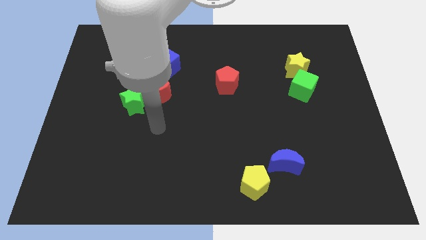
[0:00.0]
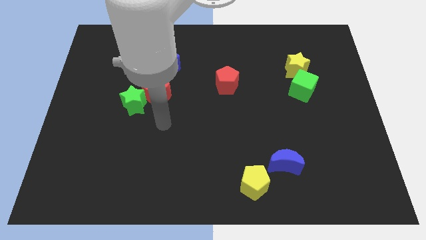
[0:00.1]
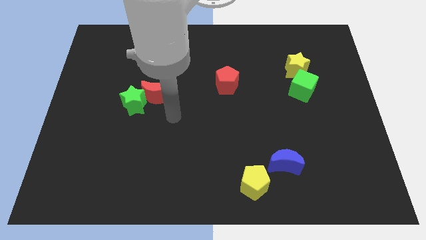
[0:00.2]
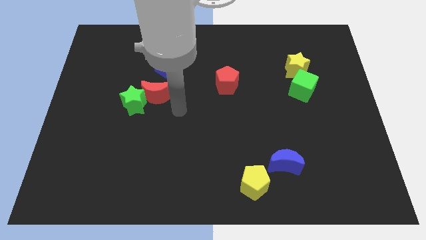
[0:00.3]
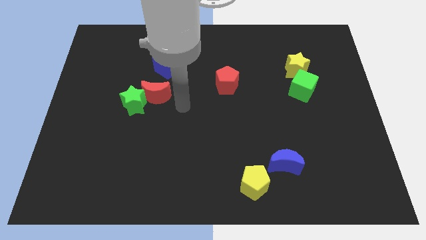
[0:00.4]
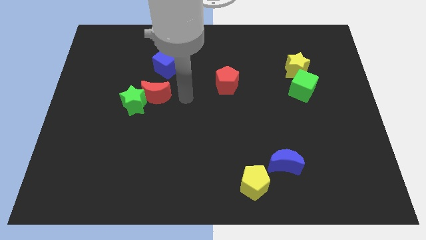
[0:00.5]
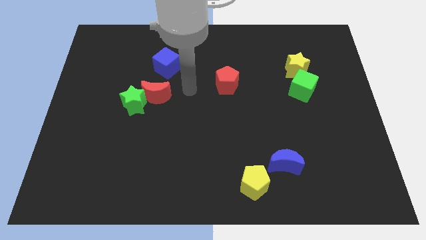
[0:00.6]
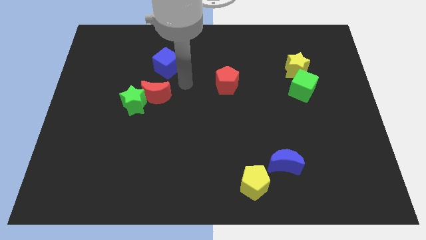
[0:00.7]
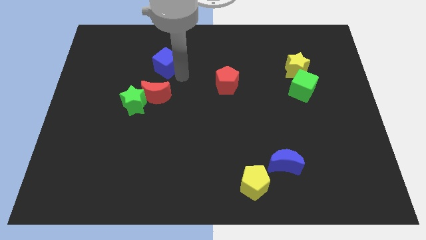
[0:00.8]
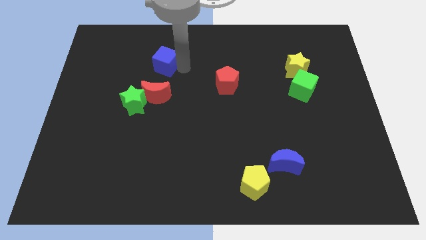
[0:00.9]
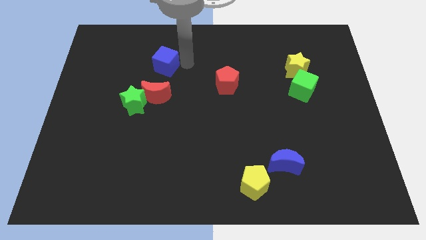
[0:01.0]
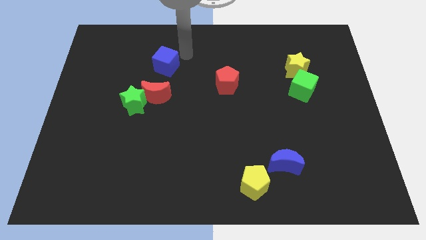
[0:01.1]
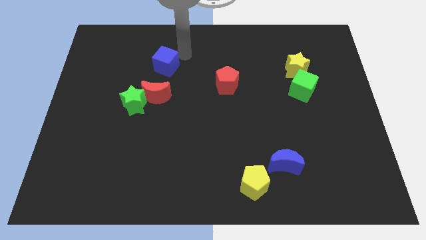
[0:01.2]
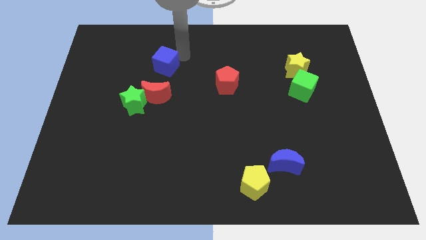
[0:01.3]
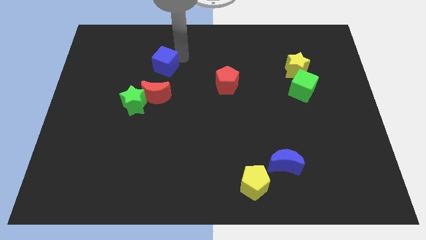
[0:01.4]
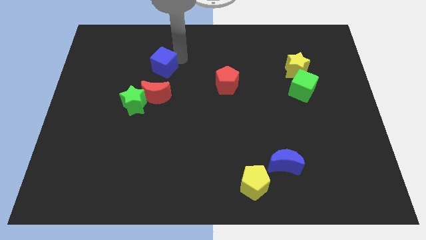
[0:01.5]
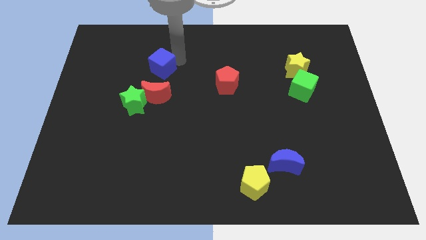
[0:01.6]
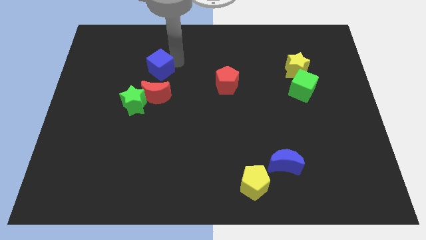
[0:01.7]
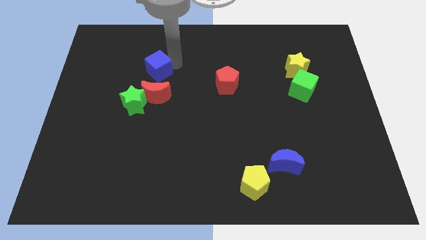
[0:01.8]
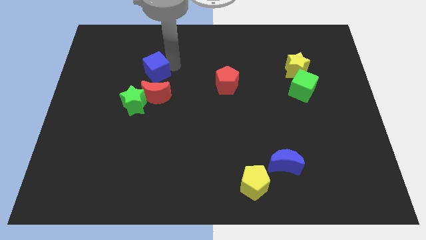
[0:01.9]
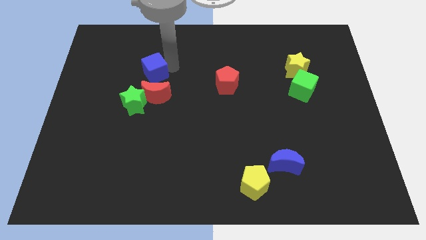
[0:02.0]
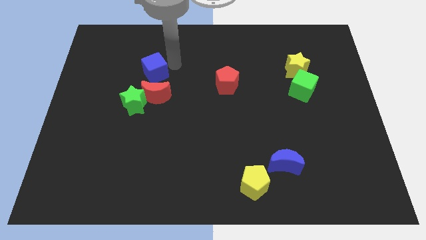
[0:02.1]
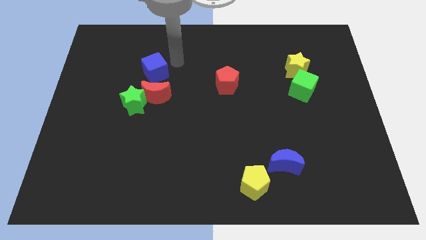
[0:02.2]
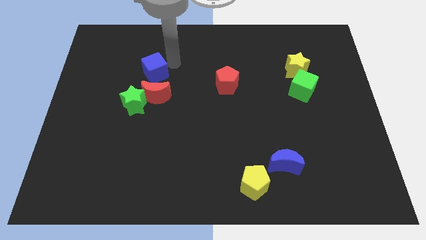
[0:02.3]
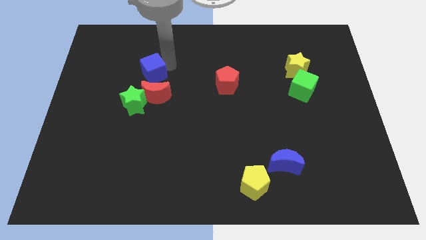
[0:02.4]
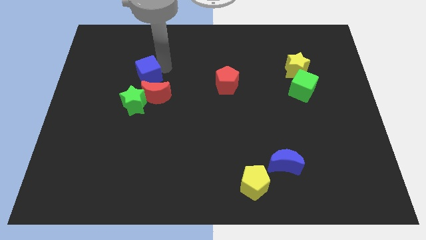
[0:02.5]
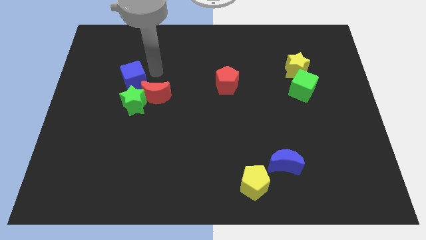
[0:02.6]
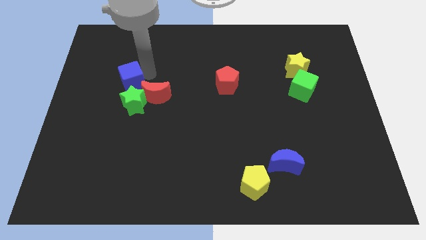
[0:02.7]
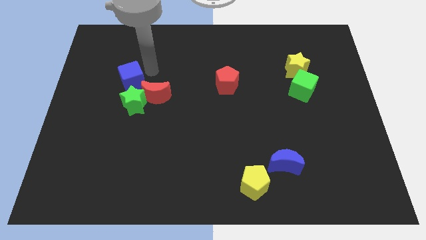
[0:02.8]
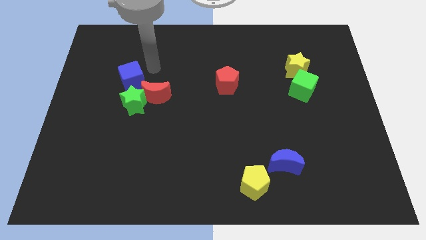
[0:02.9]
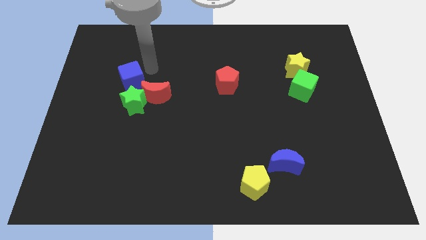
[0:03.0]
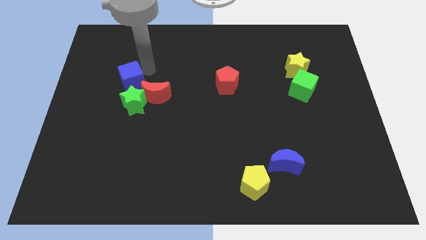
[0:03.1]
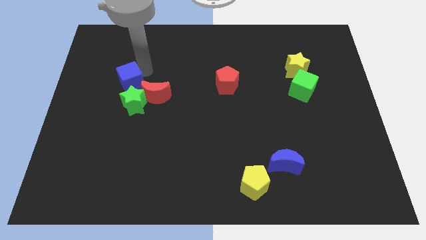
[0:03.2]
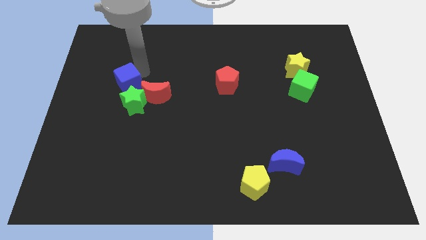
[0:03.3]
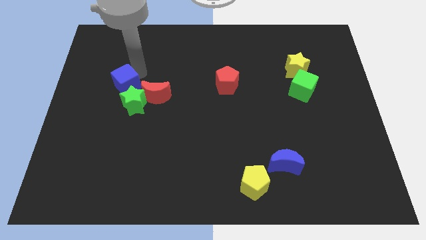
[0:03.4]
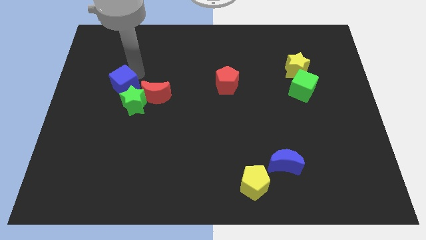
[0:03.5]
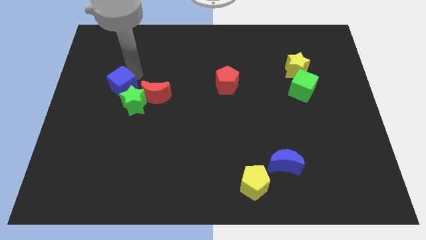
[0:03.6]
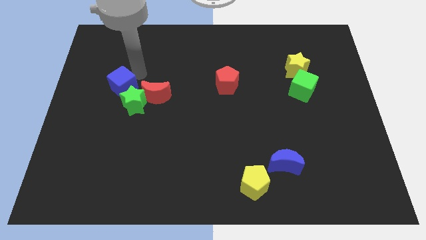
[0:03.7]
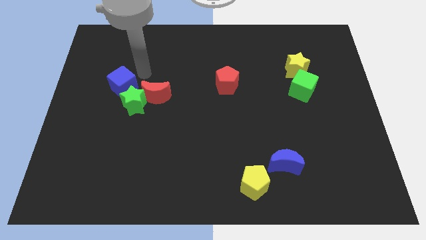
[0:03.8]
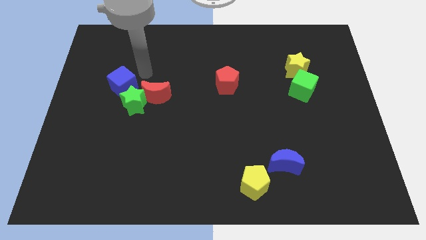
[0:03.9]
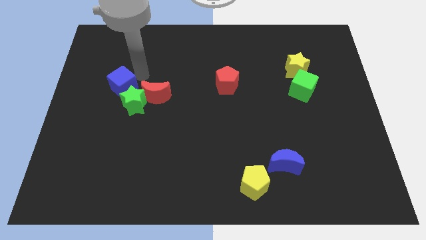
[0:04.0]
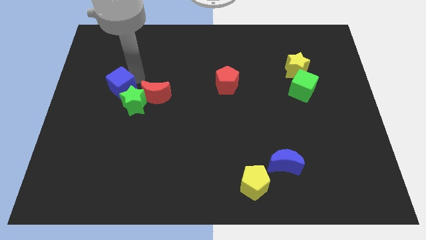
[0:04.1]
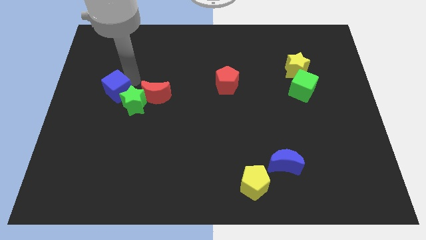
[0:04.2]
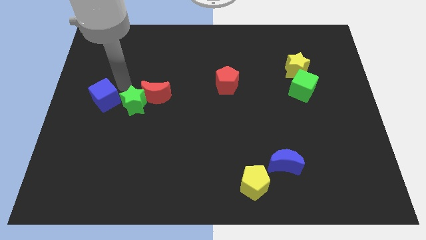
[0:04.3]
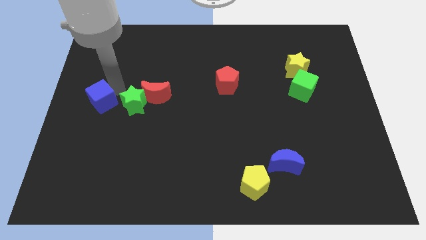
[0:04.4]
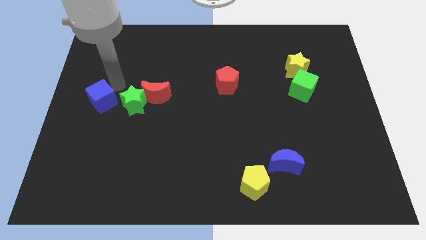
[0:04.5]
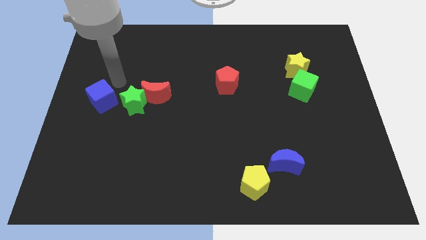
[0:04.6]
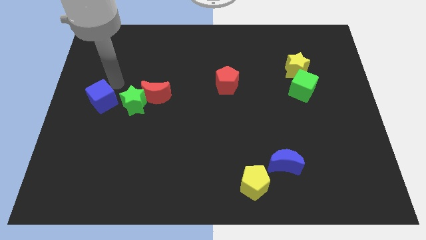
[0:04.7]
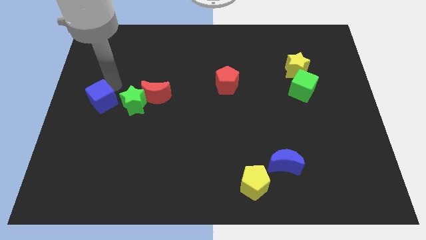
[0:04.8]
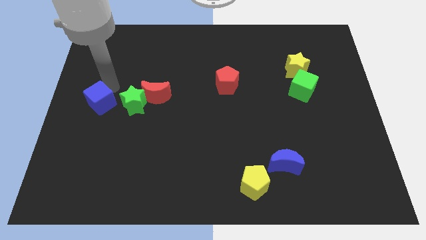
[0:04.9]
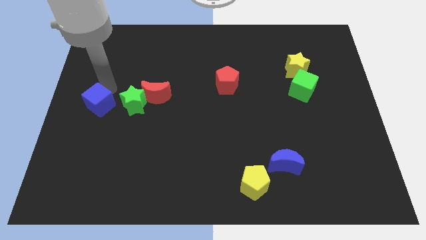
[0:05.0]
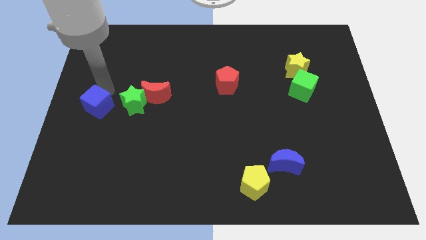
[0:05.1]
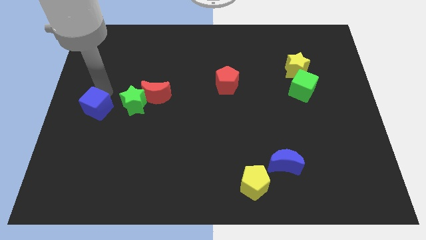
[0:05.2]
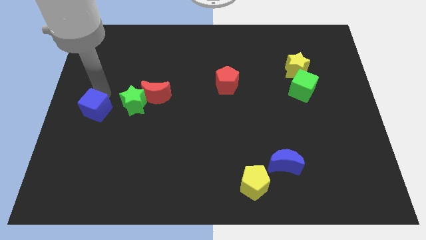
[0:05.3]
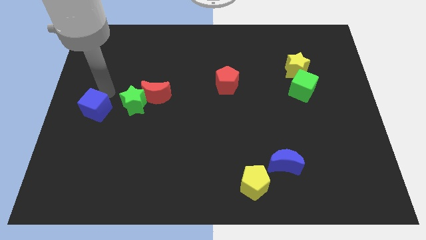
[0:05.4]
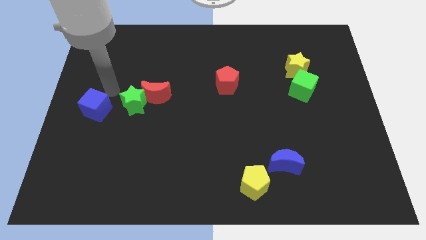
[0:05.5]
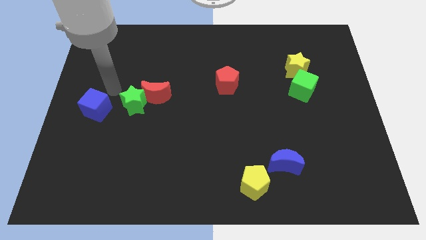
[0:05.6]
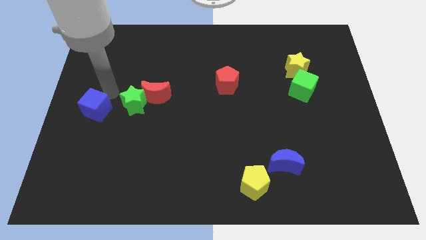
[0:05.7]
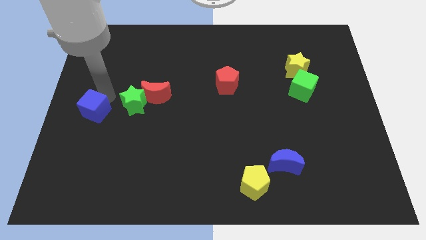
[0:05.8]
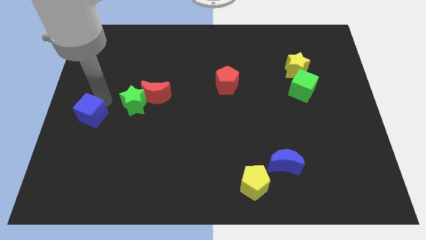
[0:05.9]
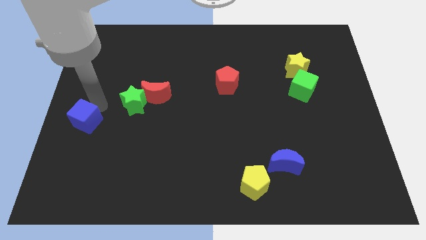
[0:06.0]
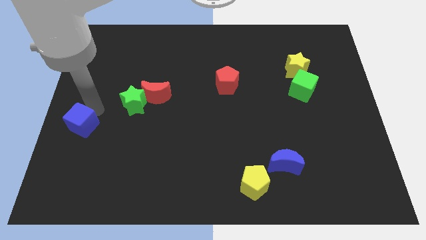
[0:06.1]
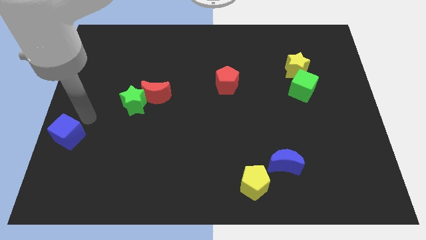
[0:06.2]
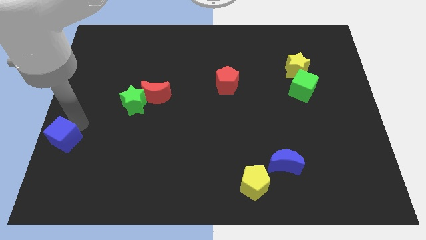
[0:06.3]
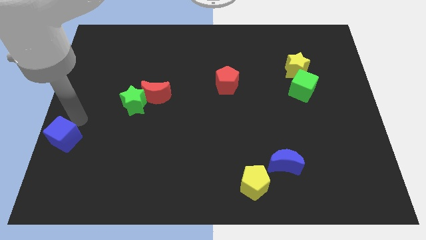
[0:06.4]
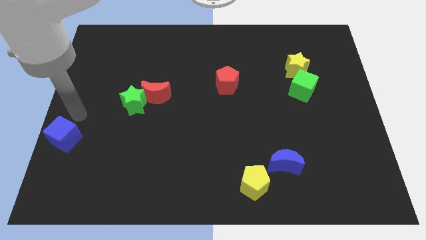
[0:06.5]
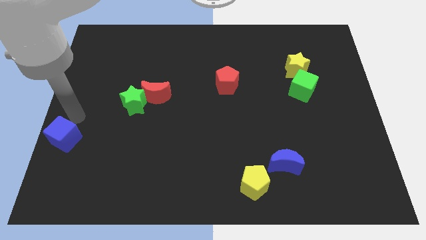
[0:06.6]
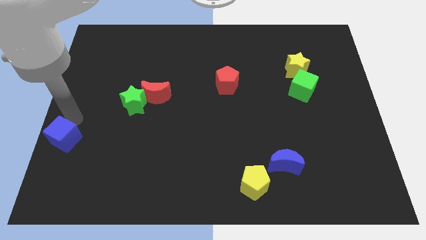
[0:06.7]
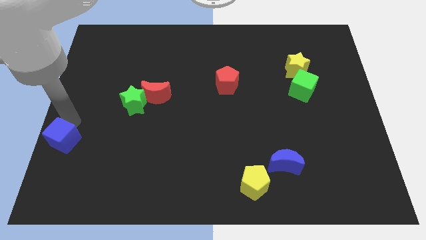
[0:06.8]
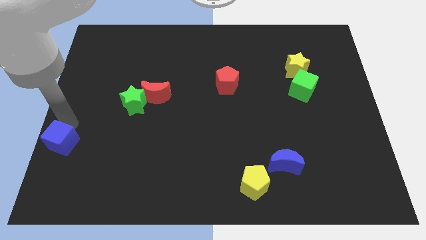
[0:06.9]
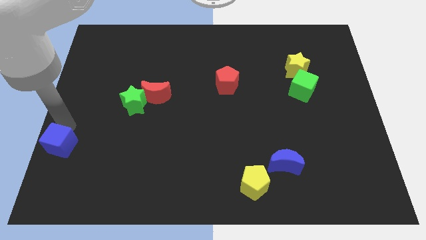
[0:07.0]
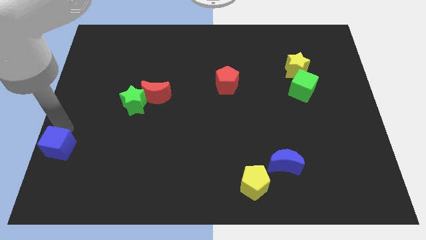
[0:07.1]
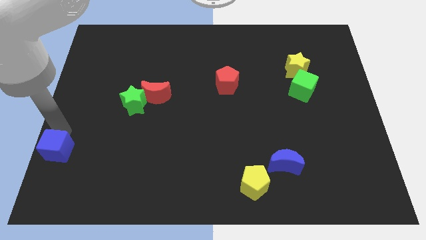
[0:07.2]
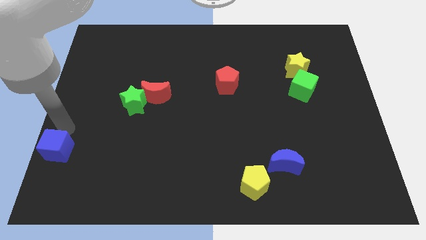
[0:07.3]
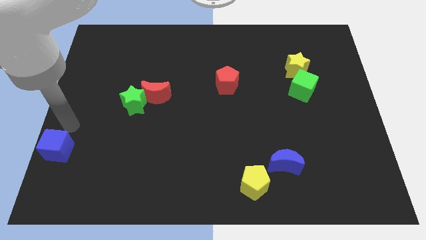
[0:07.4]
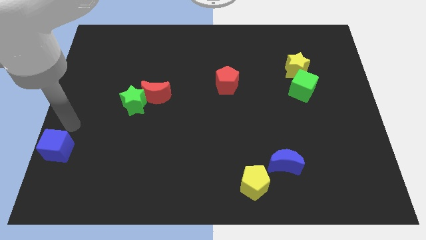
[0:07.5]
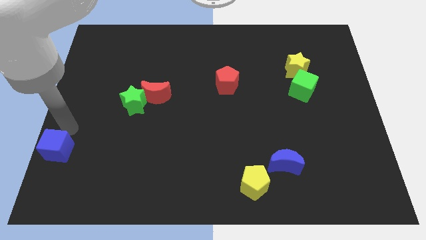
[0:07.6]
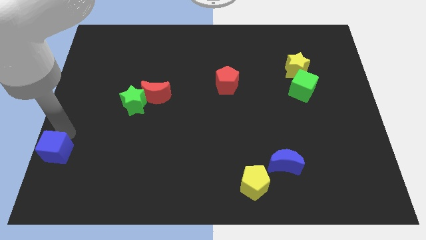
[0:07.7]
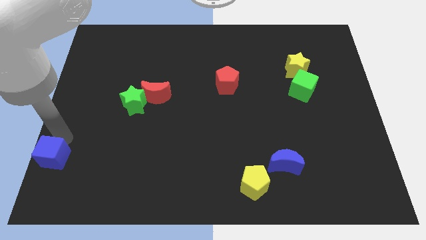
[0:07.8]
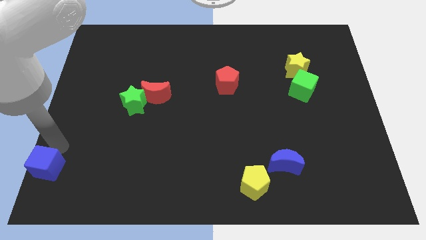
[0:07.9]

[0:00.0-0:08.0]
push the blue cube to the lower left corner
